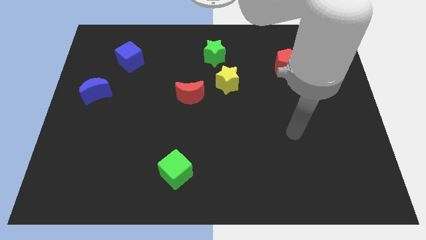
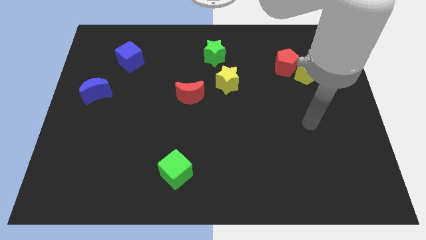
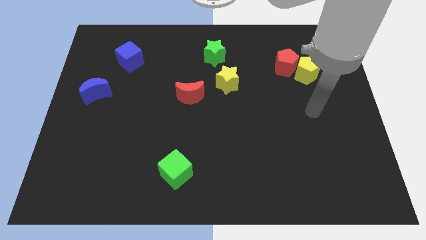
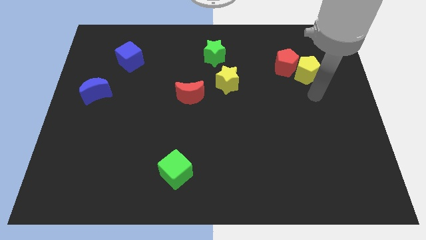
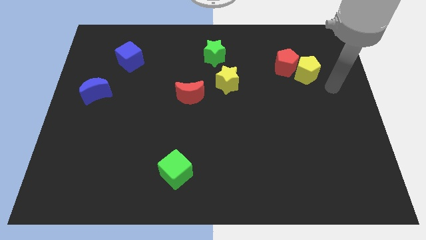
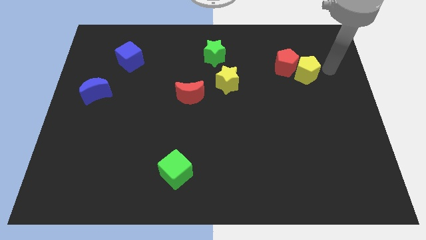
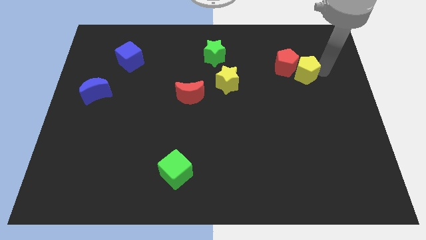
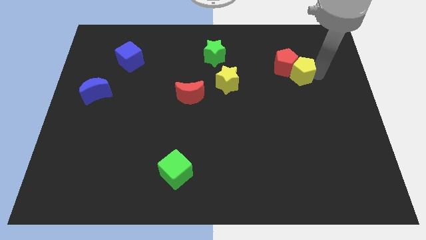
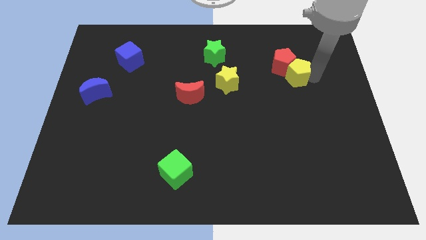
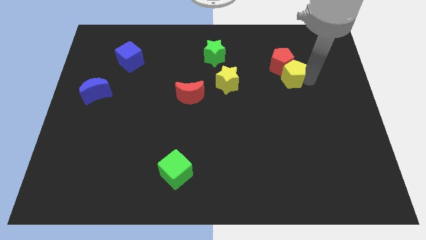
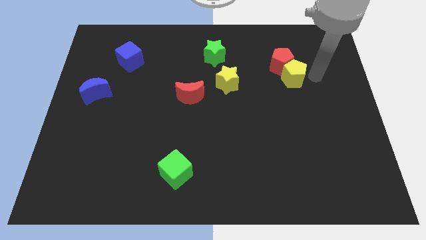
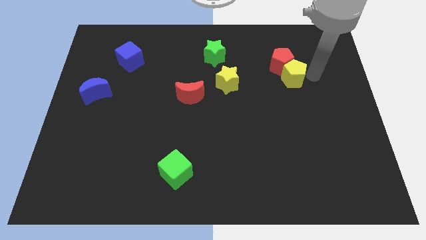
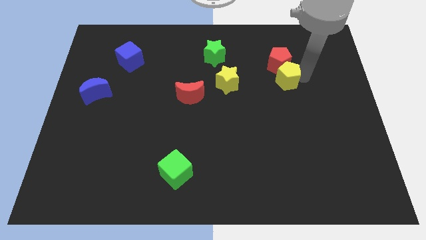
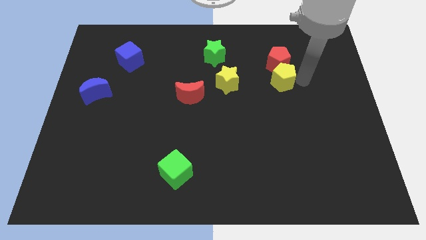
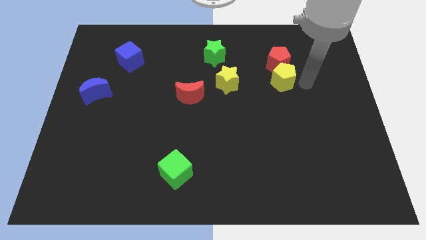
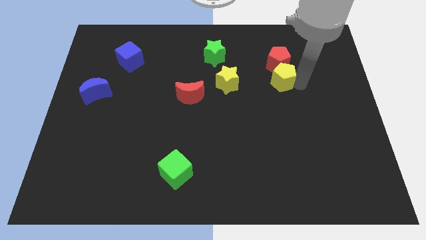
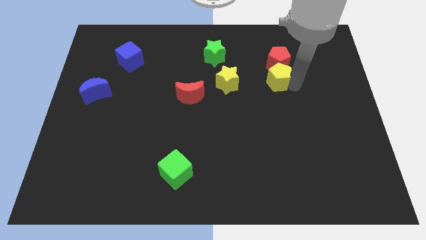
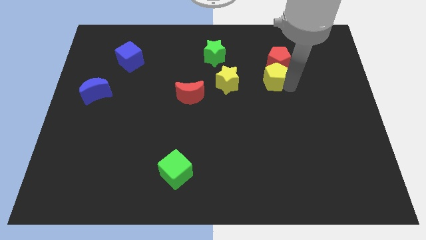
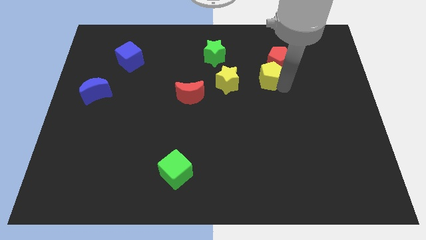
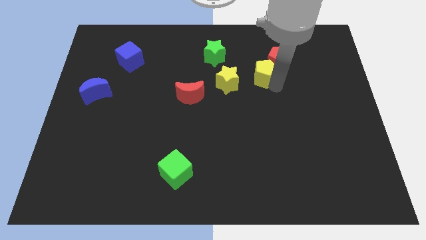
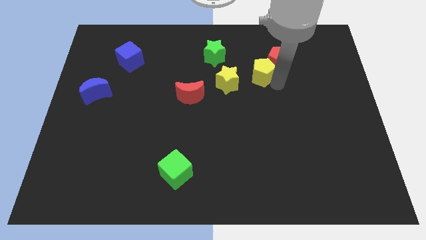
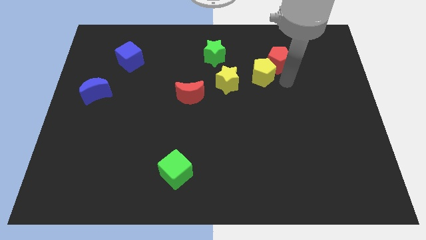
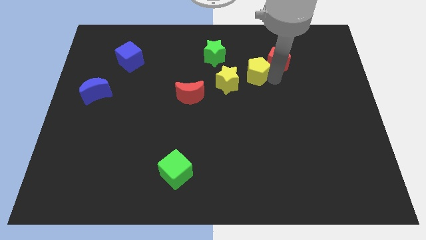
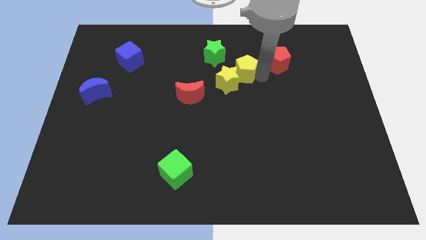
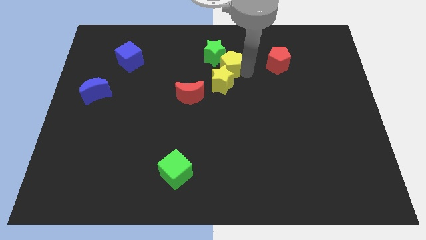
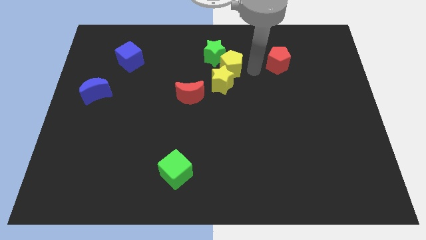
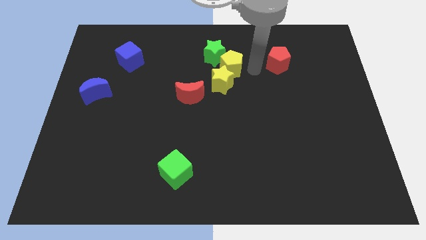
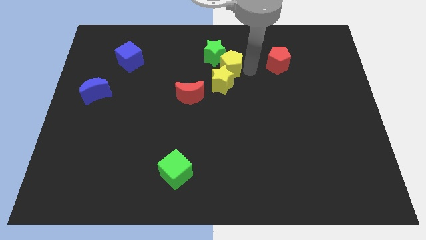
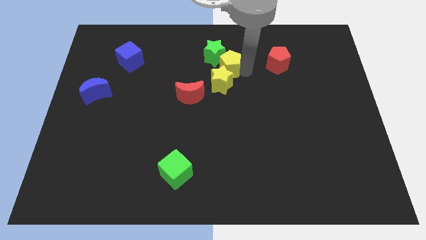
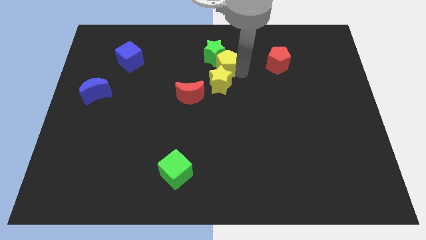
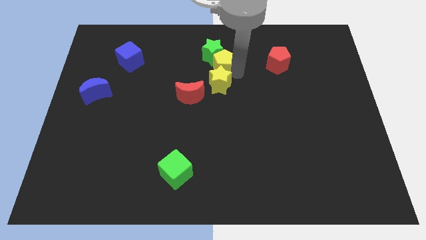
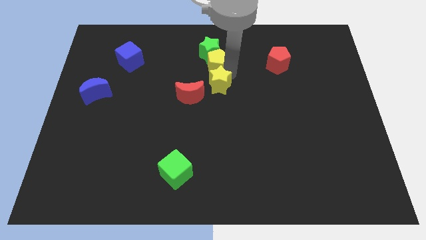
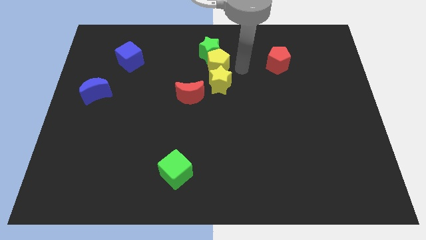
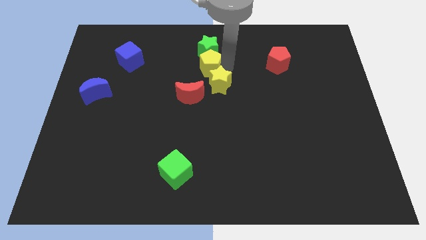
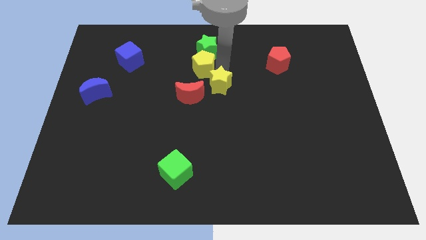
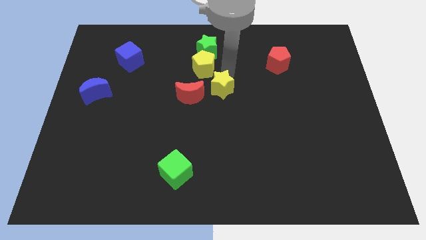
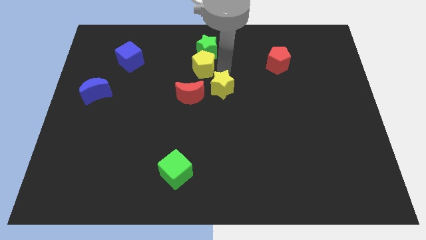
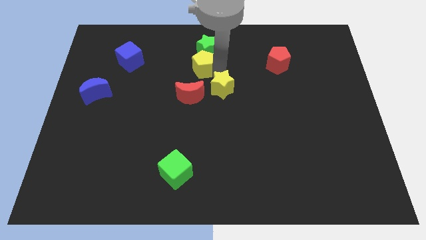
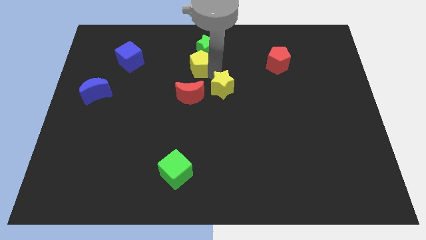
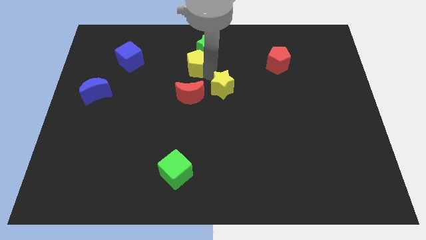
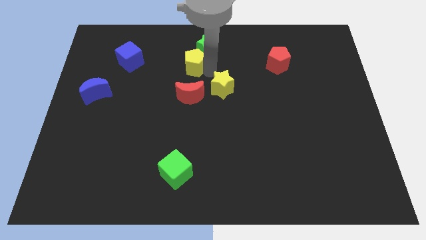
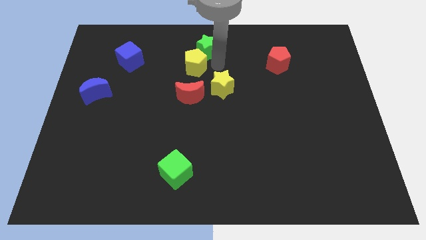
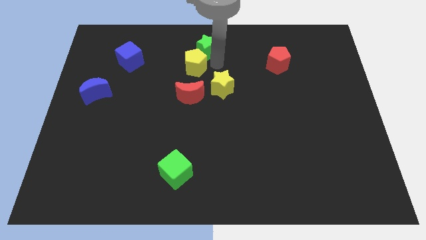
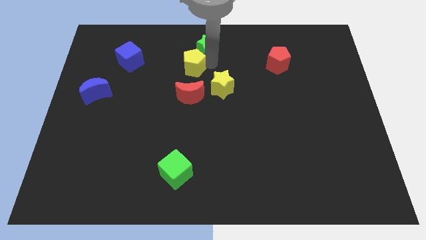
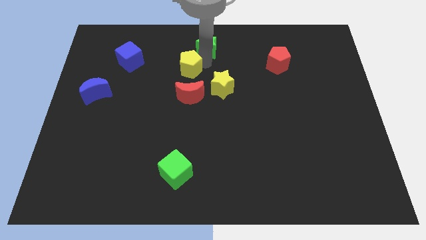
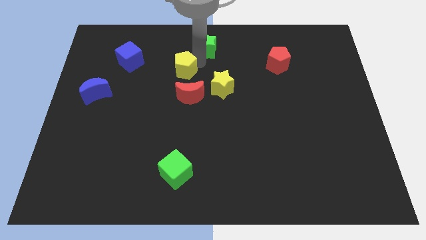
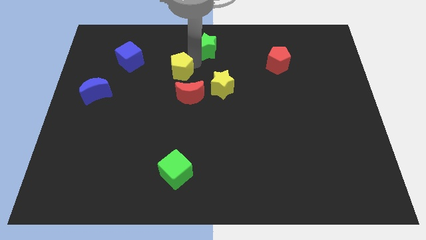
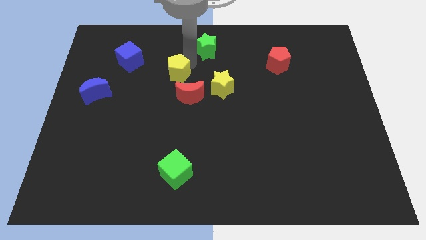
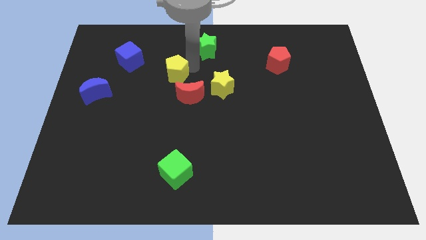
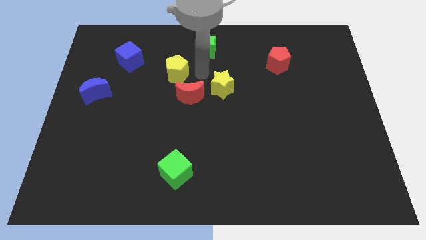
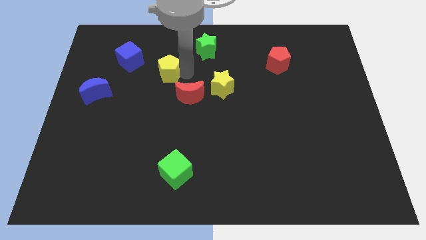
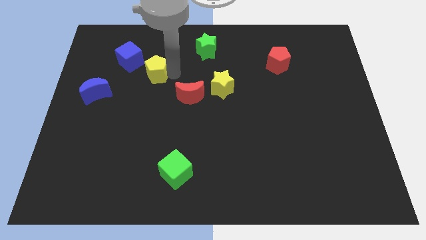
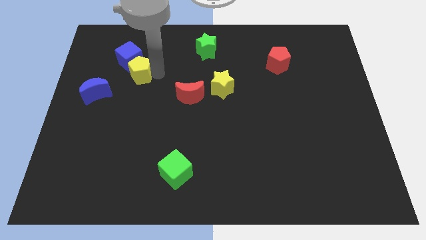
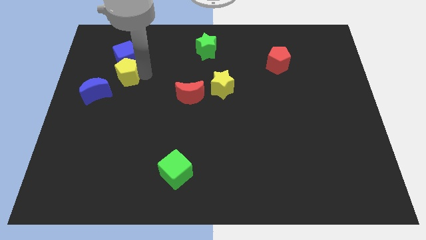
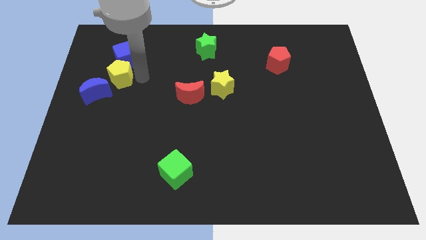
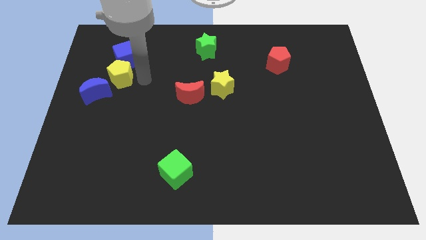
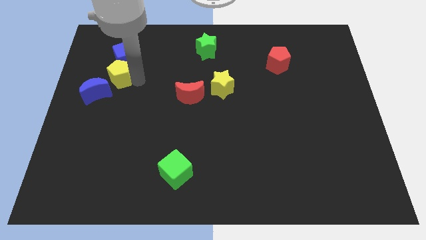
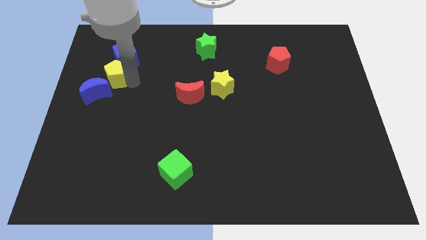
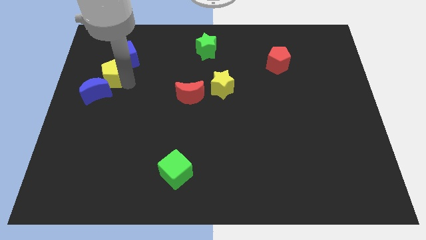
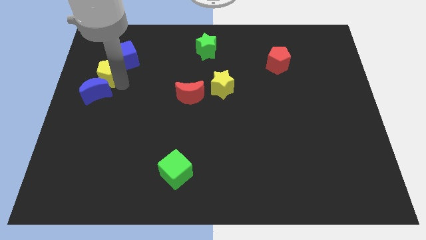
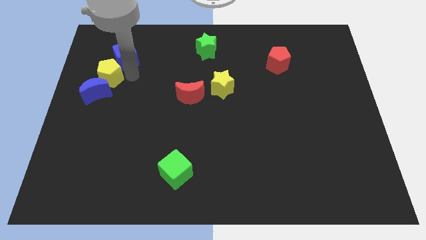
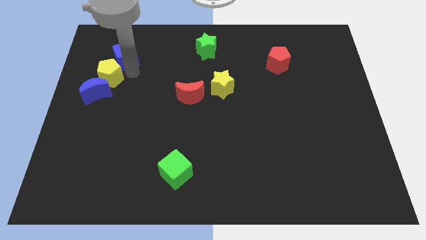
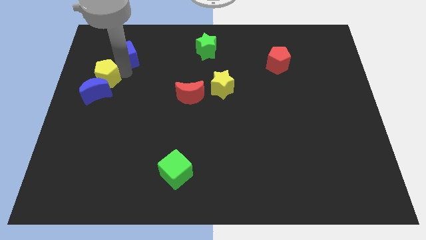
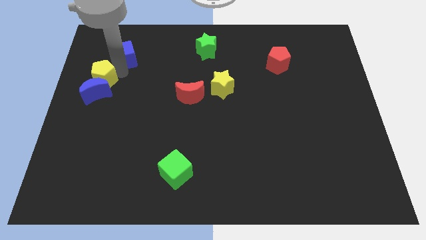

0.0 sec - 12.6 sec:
slide the yellow pentagon to the center left
